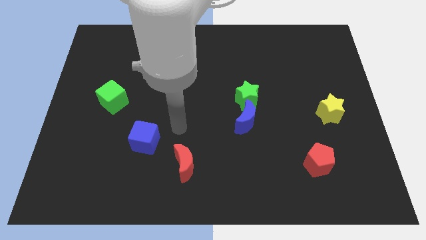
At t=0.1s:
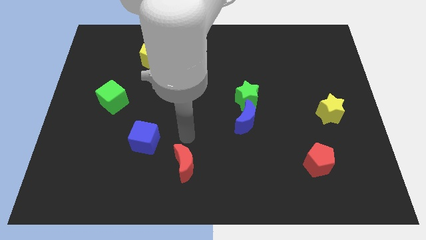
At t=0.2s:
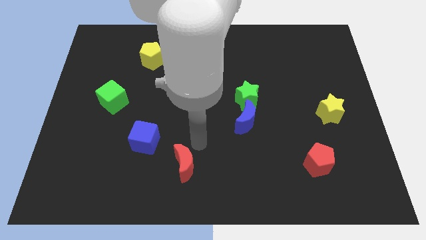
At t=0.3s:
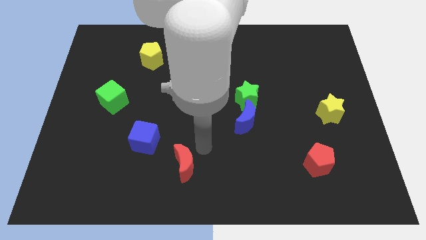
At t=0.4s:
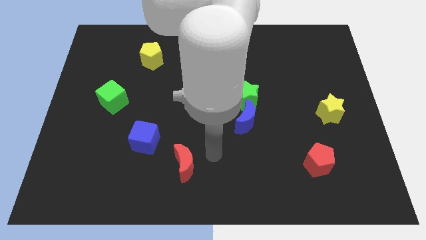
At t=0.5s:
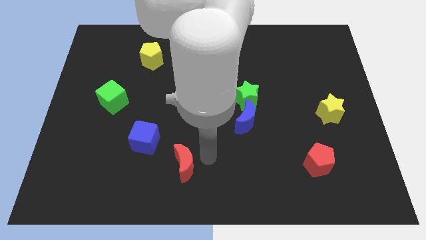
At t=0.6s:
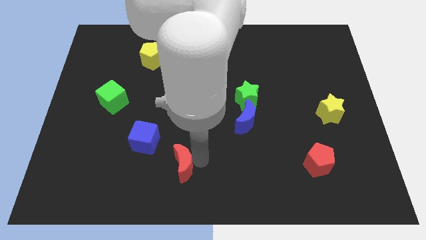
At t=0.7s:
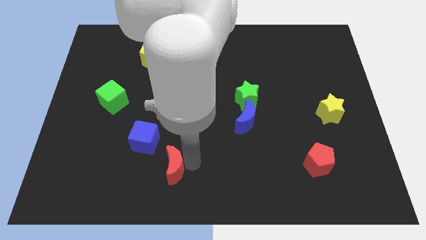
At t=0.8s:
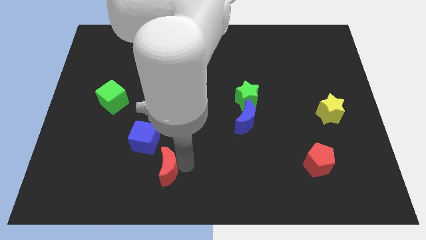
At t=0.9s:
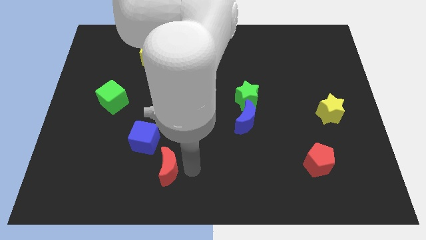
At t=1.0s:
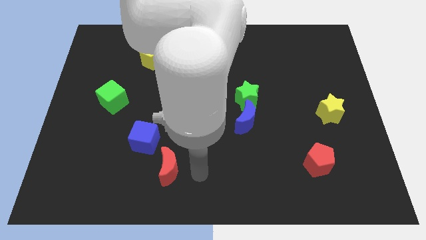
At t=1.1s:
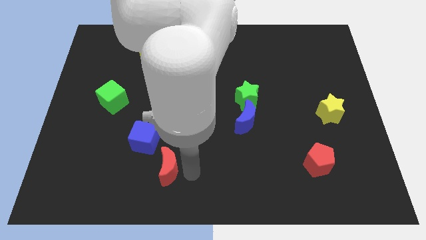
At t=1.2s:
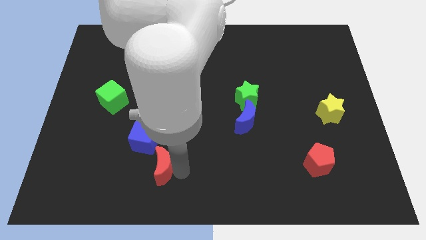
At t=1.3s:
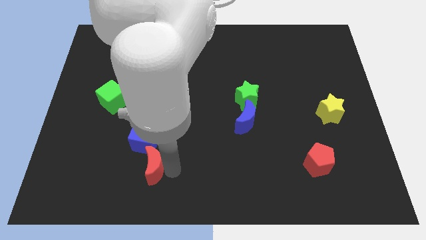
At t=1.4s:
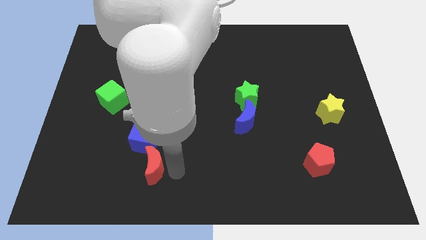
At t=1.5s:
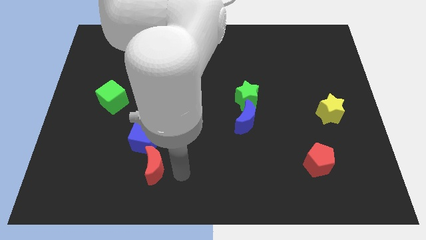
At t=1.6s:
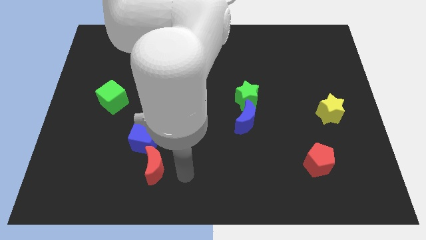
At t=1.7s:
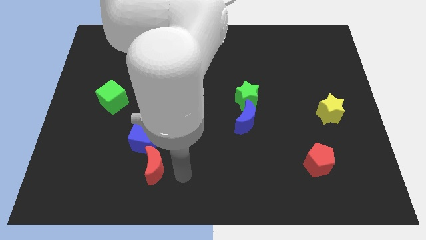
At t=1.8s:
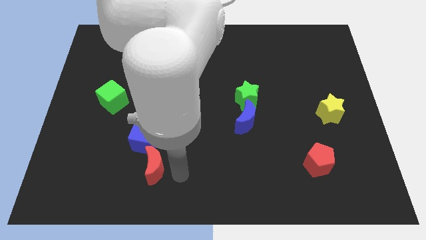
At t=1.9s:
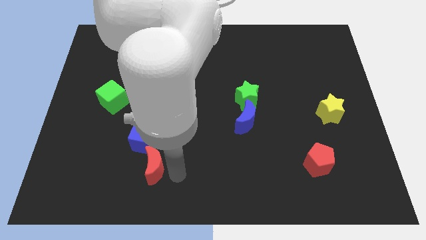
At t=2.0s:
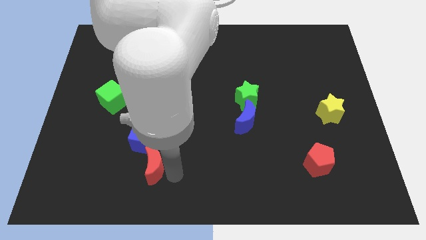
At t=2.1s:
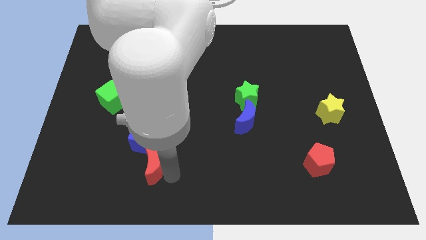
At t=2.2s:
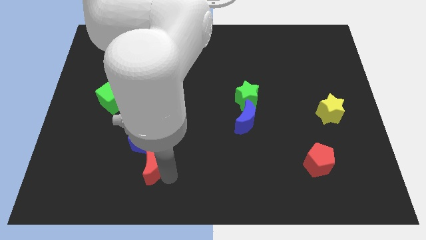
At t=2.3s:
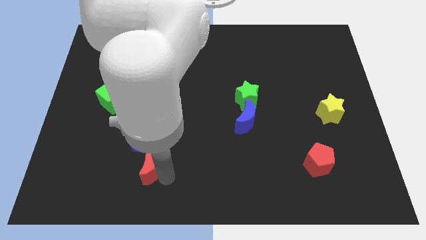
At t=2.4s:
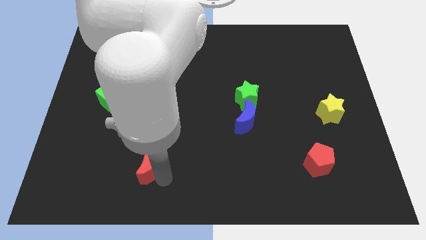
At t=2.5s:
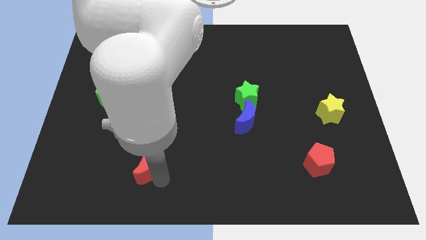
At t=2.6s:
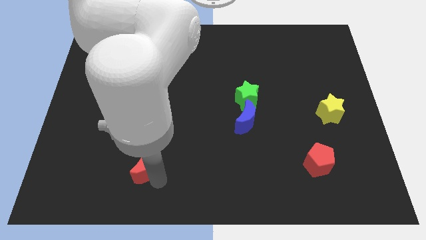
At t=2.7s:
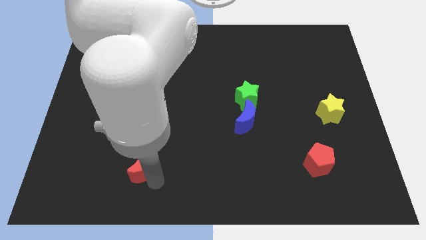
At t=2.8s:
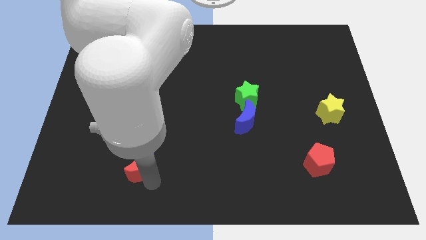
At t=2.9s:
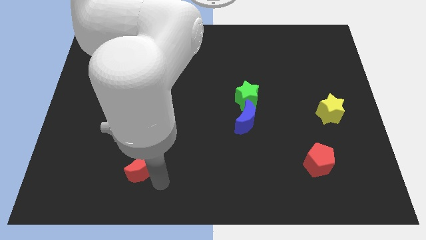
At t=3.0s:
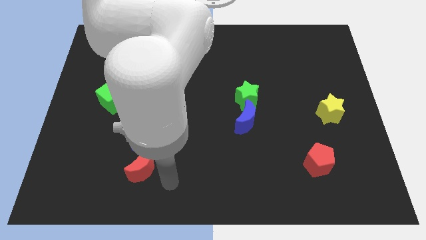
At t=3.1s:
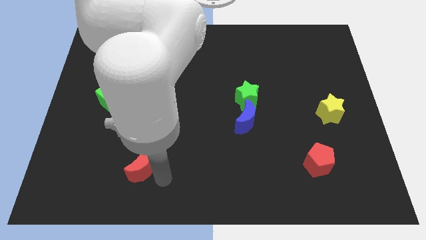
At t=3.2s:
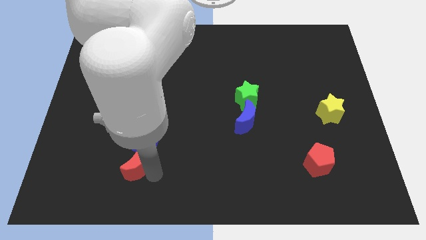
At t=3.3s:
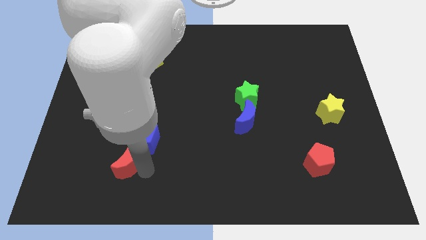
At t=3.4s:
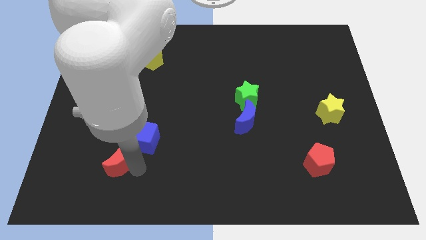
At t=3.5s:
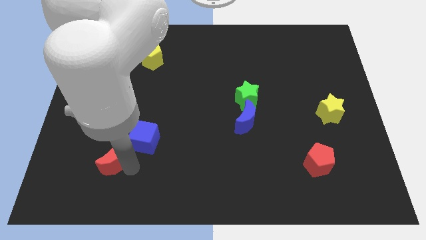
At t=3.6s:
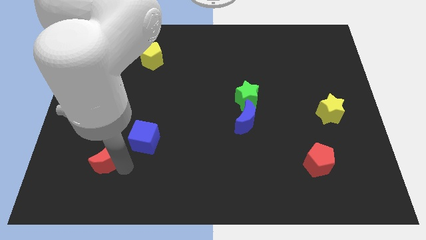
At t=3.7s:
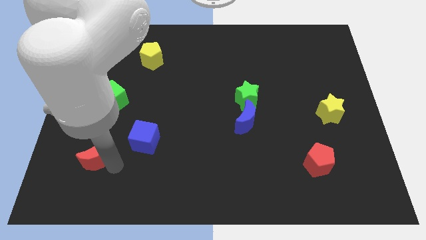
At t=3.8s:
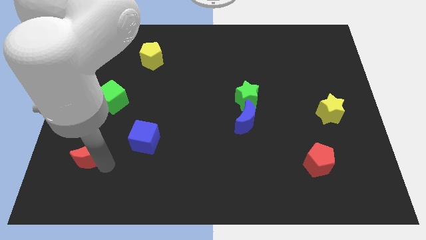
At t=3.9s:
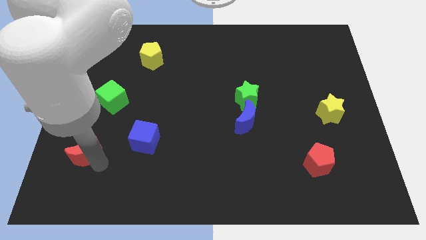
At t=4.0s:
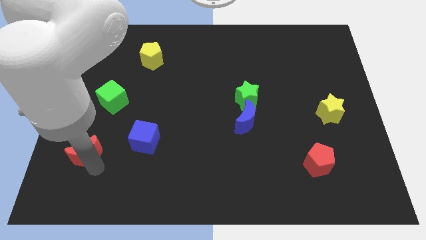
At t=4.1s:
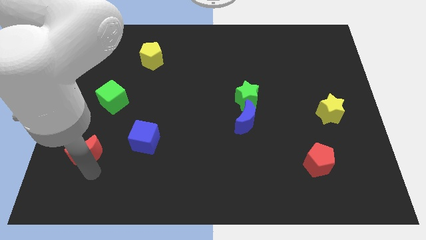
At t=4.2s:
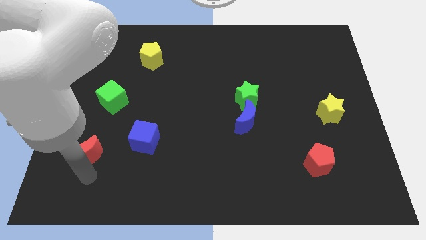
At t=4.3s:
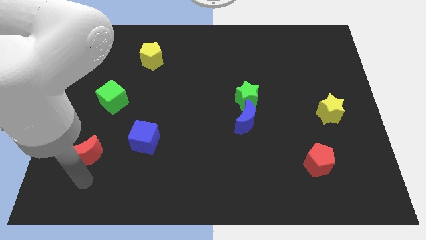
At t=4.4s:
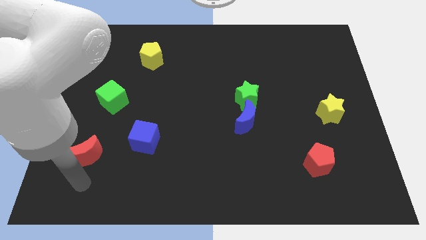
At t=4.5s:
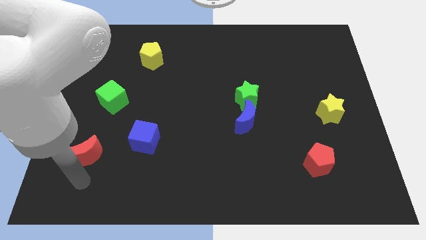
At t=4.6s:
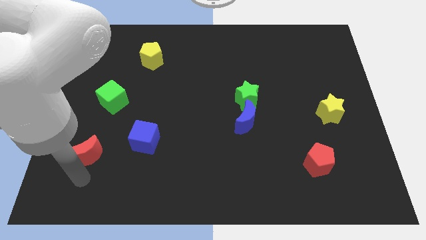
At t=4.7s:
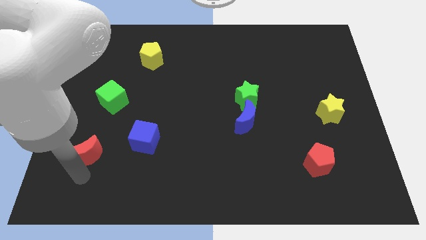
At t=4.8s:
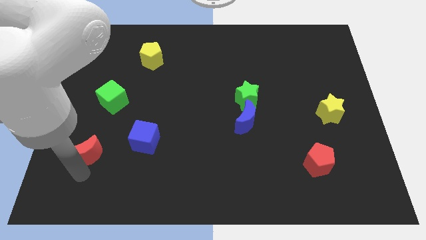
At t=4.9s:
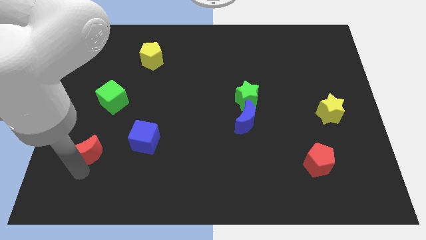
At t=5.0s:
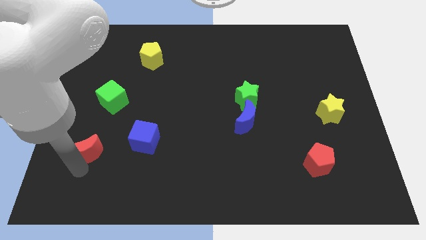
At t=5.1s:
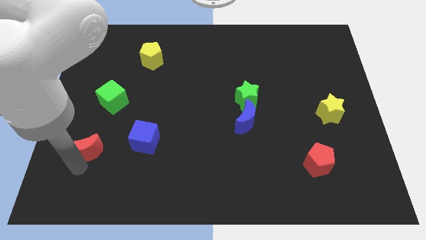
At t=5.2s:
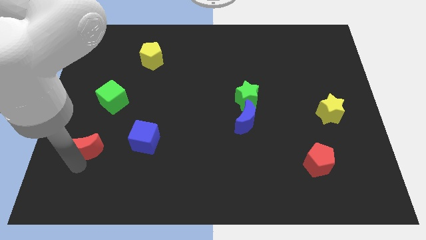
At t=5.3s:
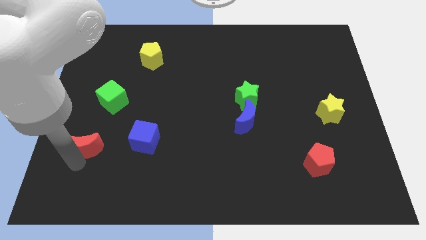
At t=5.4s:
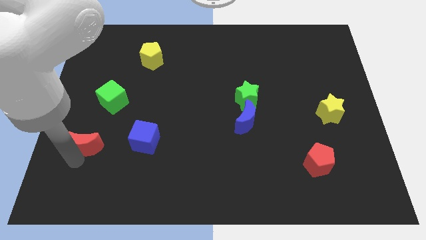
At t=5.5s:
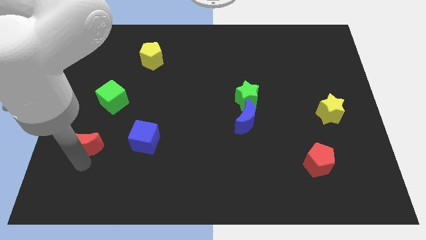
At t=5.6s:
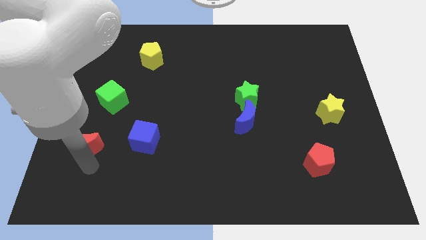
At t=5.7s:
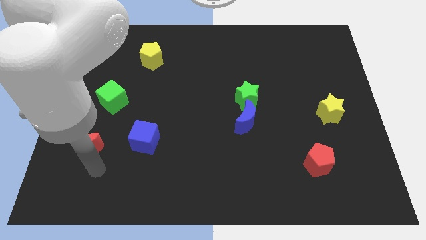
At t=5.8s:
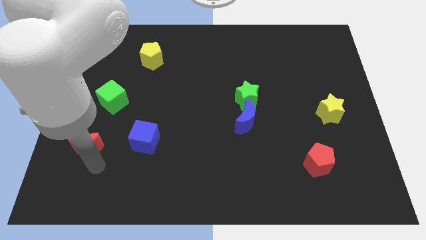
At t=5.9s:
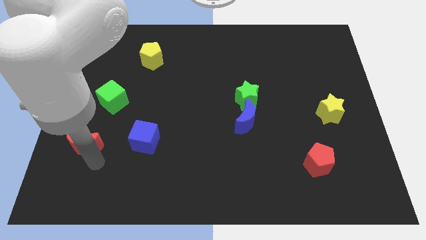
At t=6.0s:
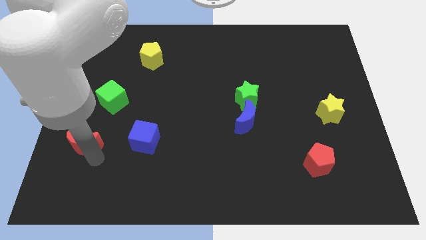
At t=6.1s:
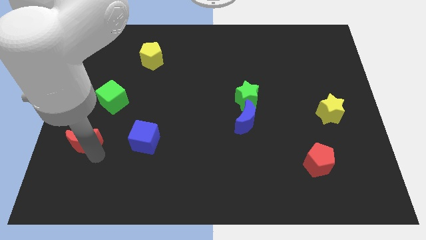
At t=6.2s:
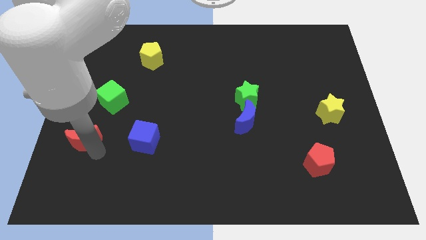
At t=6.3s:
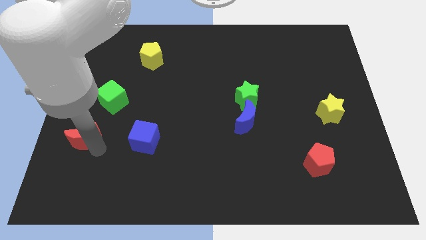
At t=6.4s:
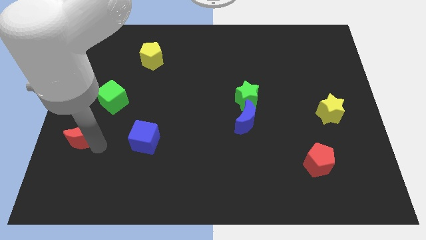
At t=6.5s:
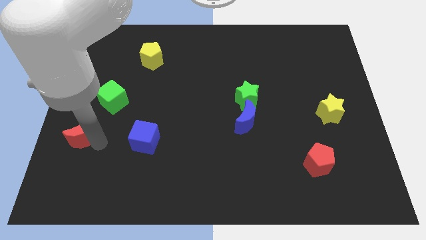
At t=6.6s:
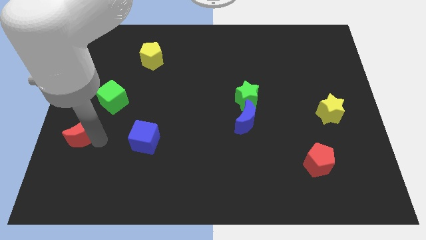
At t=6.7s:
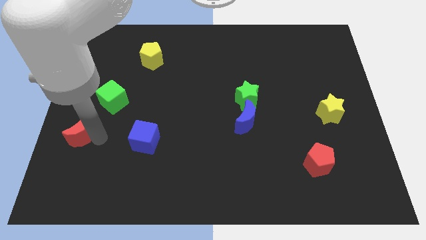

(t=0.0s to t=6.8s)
put the red moon to the left side
